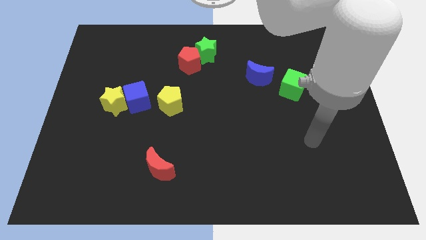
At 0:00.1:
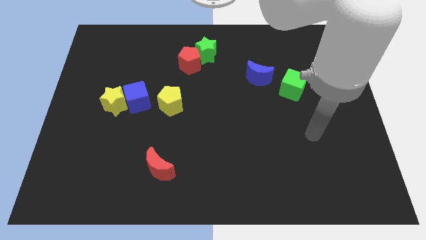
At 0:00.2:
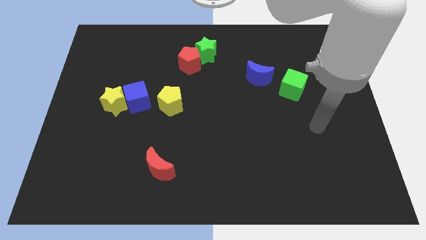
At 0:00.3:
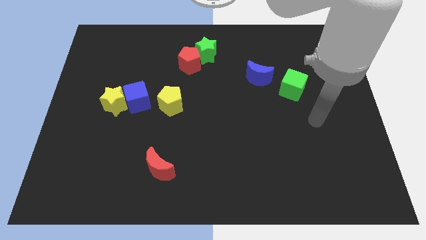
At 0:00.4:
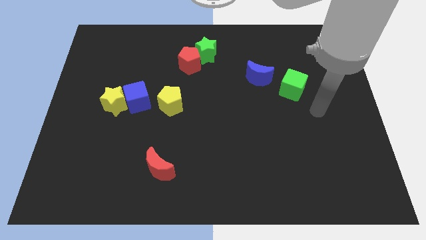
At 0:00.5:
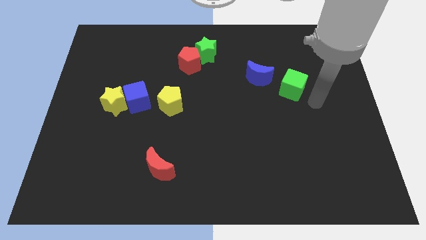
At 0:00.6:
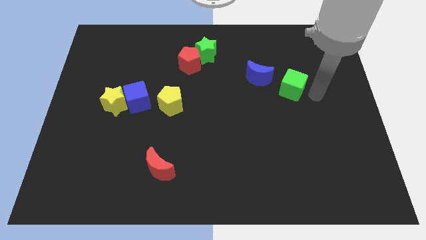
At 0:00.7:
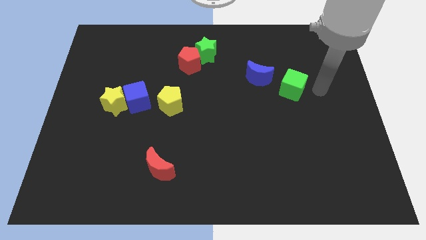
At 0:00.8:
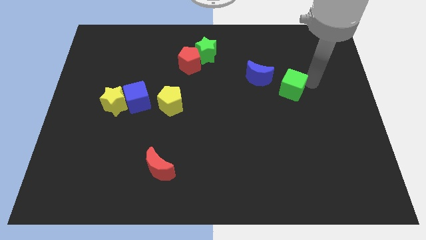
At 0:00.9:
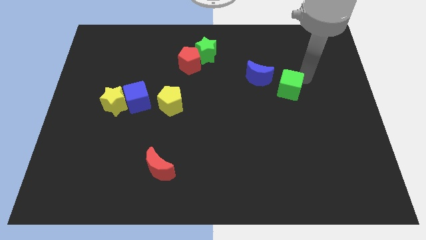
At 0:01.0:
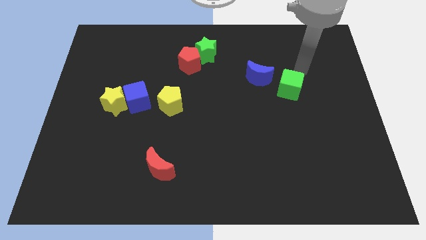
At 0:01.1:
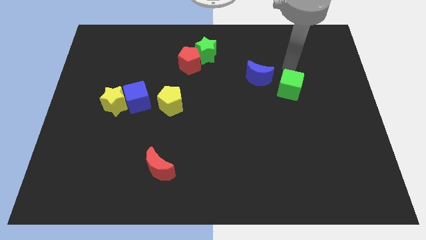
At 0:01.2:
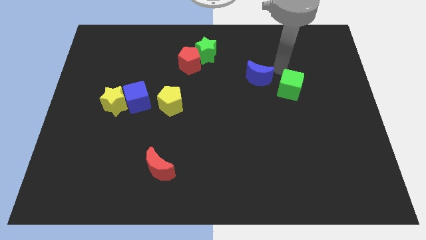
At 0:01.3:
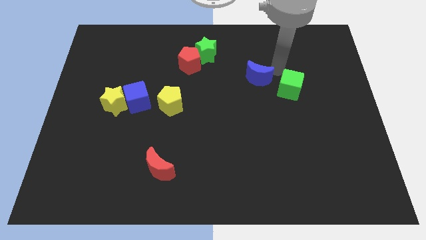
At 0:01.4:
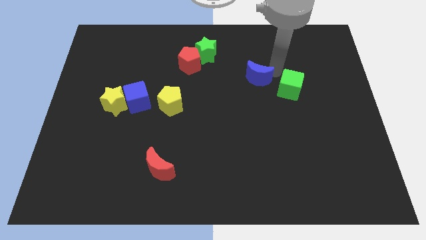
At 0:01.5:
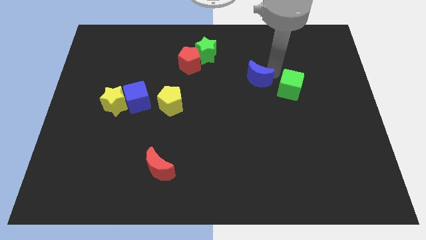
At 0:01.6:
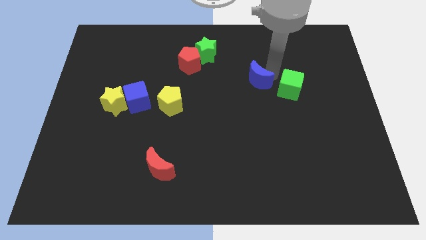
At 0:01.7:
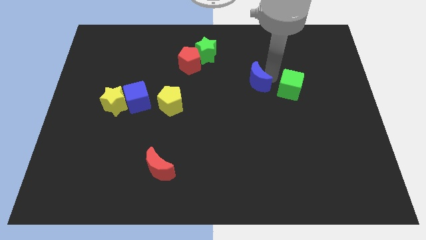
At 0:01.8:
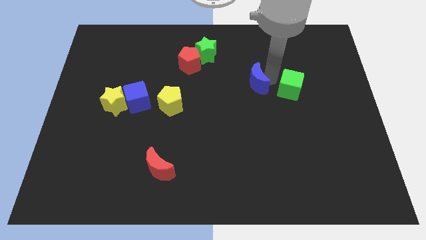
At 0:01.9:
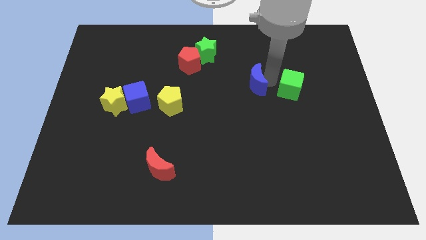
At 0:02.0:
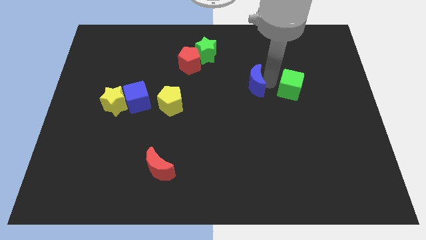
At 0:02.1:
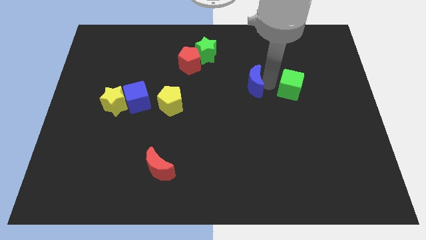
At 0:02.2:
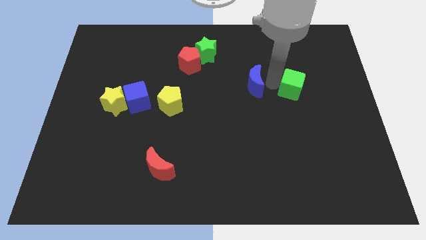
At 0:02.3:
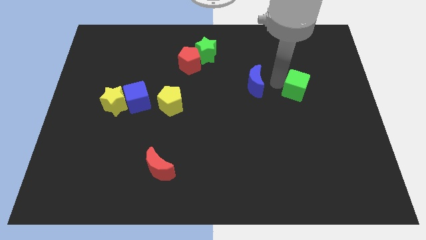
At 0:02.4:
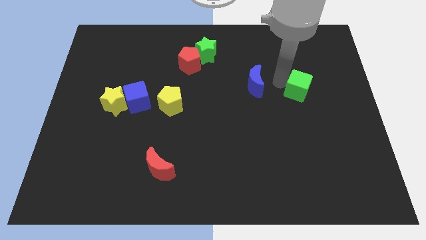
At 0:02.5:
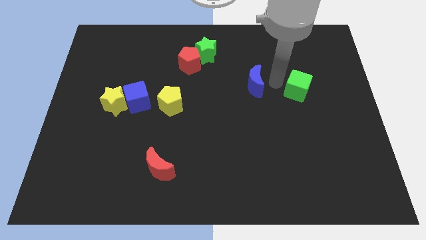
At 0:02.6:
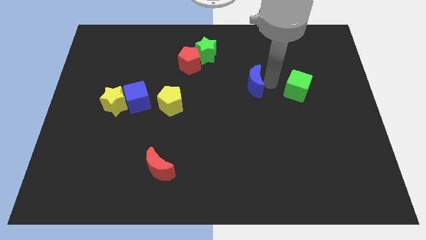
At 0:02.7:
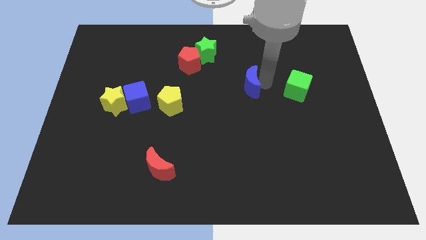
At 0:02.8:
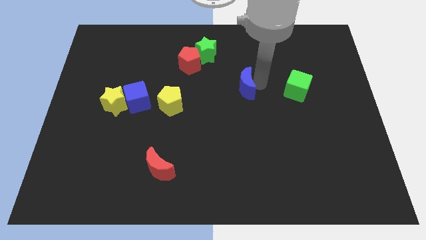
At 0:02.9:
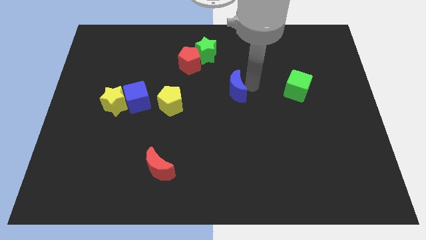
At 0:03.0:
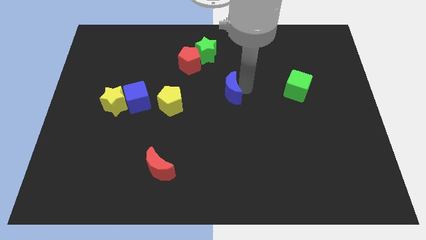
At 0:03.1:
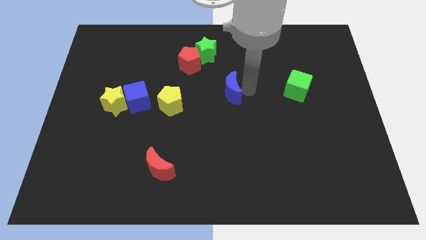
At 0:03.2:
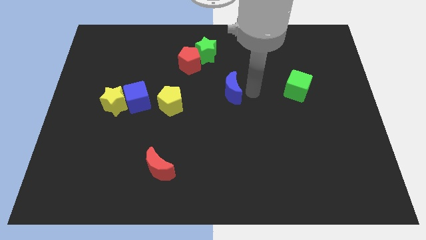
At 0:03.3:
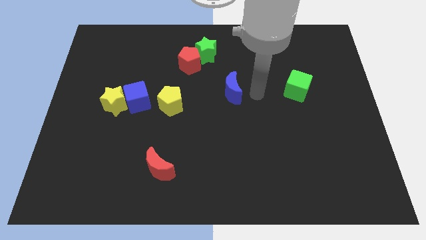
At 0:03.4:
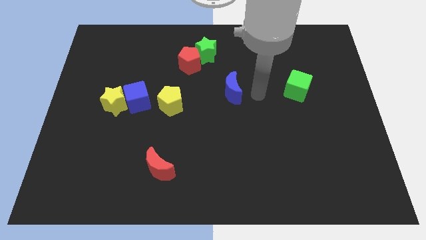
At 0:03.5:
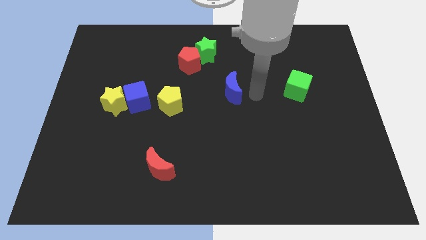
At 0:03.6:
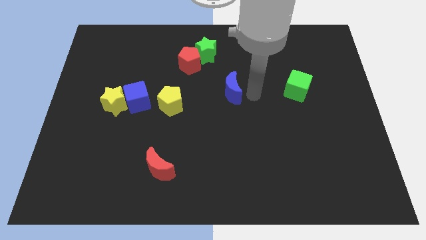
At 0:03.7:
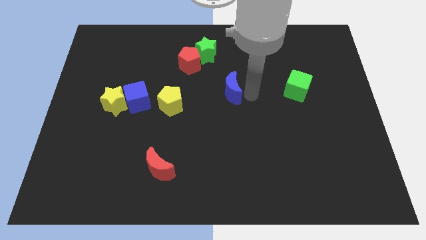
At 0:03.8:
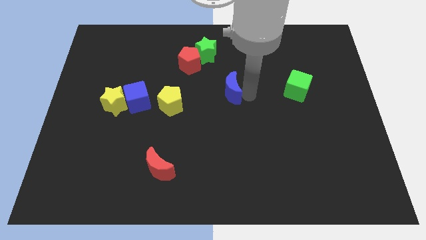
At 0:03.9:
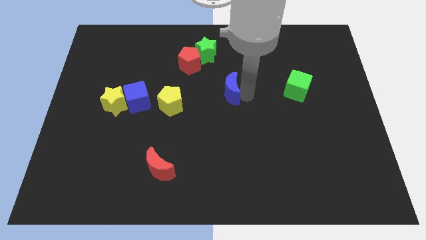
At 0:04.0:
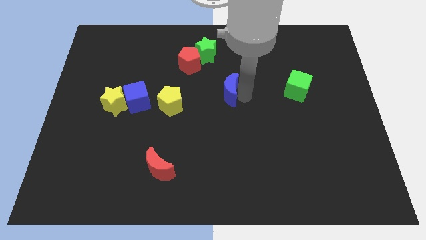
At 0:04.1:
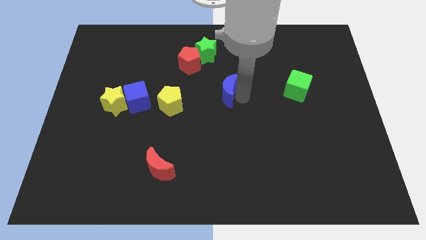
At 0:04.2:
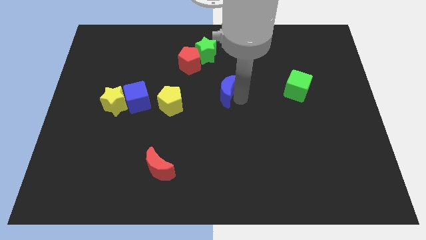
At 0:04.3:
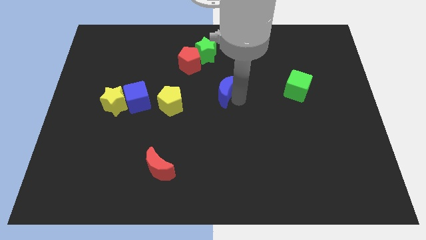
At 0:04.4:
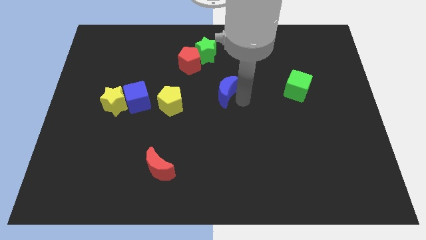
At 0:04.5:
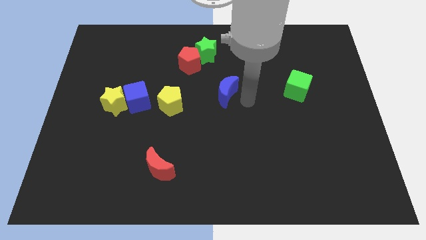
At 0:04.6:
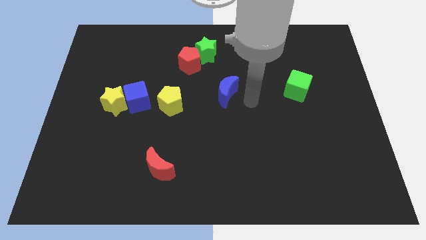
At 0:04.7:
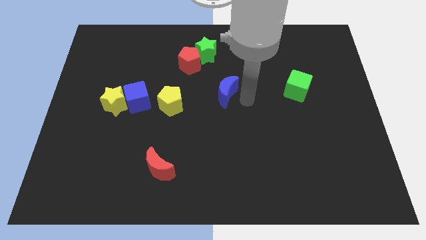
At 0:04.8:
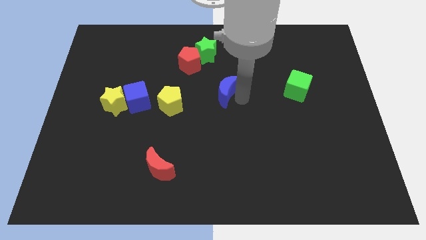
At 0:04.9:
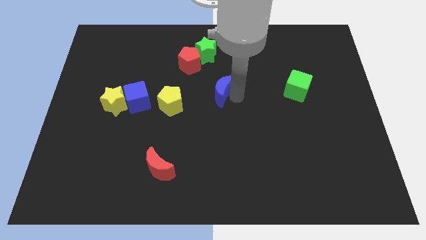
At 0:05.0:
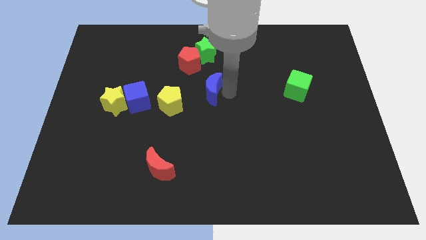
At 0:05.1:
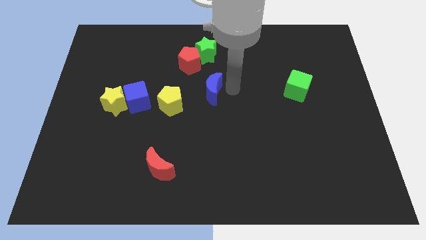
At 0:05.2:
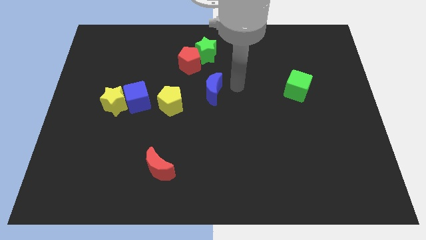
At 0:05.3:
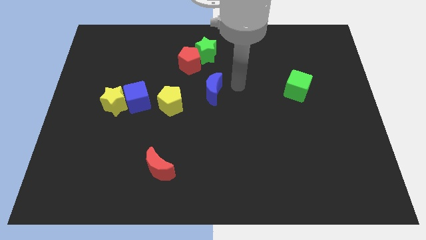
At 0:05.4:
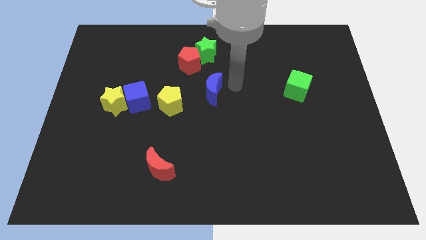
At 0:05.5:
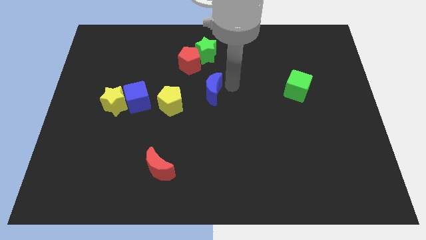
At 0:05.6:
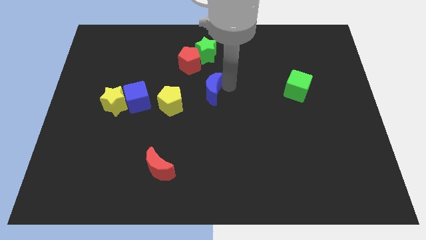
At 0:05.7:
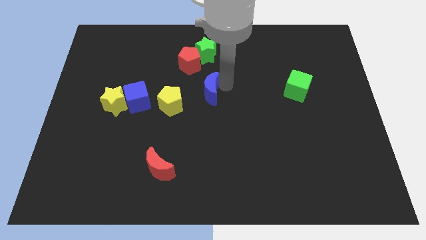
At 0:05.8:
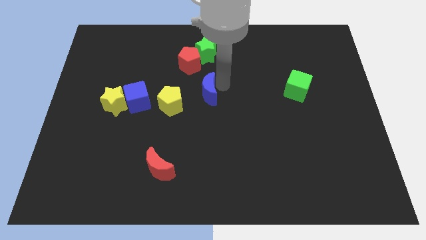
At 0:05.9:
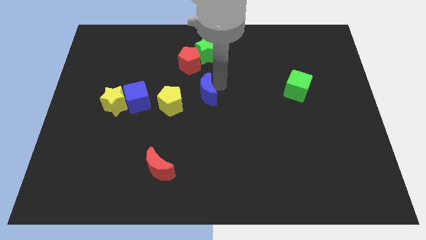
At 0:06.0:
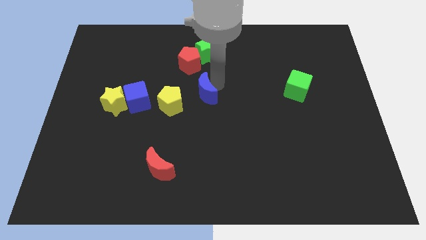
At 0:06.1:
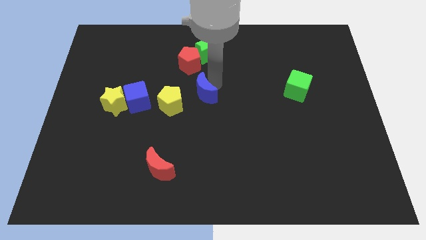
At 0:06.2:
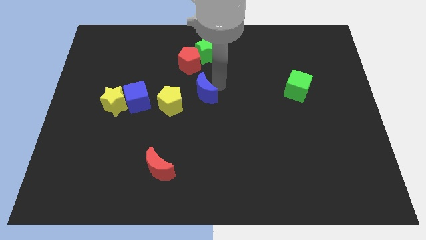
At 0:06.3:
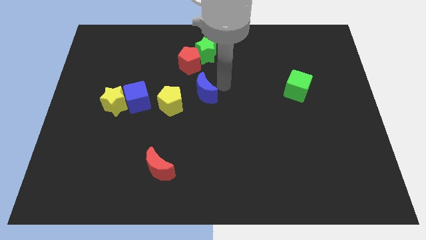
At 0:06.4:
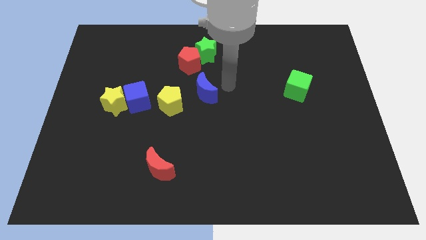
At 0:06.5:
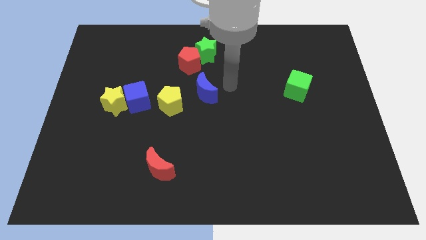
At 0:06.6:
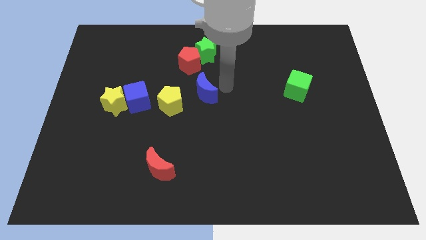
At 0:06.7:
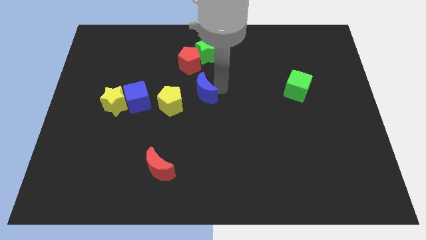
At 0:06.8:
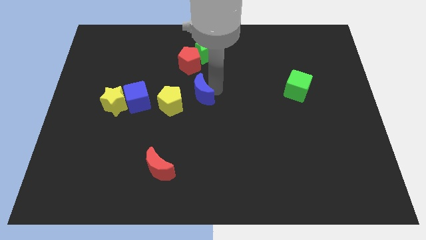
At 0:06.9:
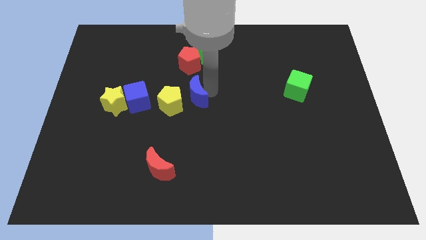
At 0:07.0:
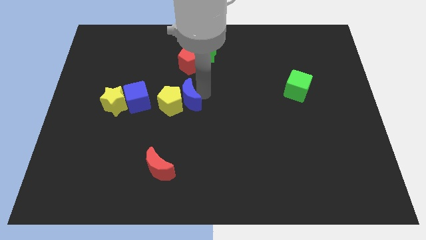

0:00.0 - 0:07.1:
push the blue moon to the yellow pentagon
